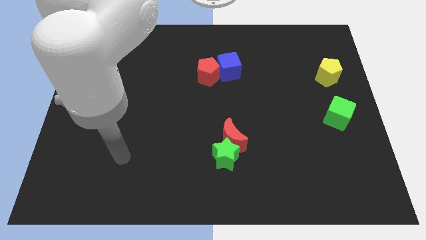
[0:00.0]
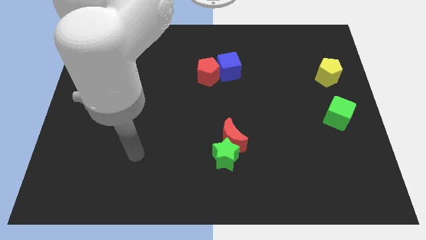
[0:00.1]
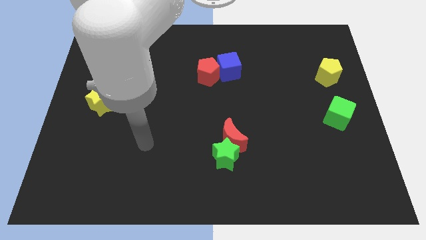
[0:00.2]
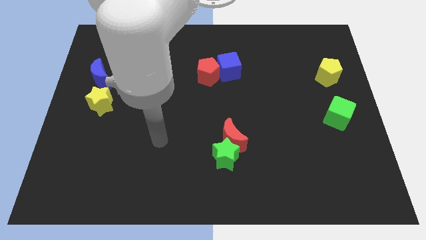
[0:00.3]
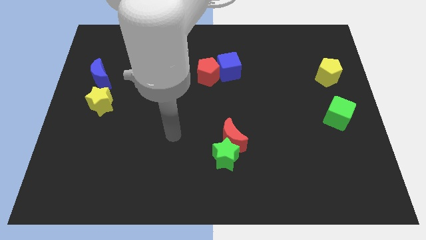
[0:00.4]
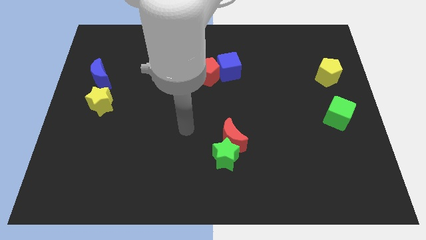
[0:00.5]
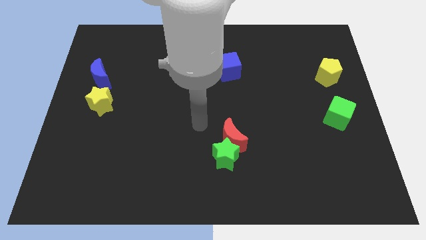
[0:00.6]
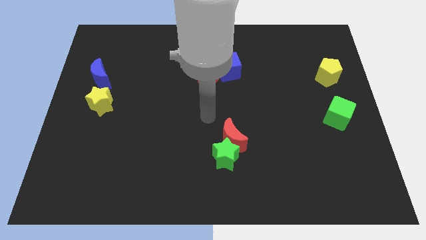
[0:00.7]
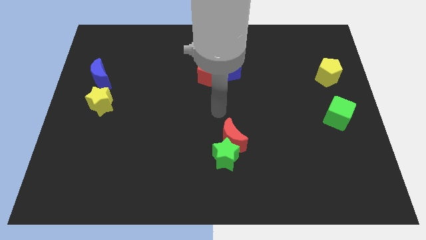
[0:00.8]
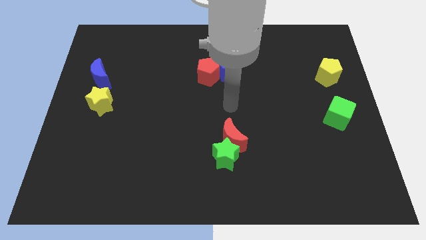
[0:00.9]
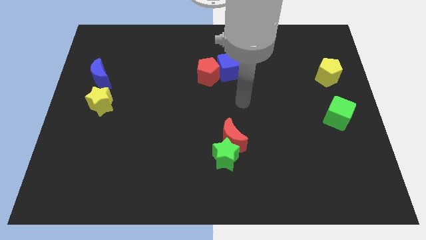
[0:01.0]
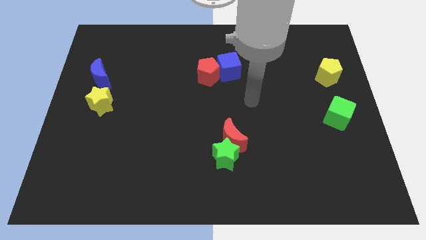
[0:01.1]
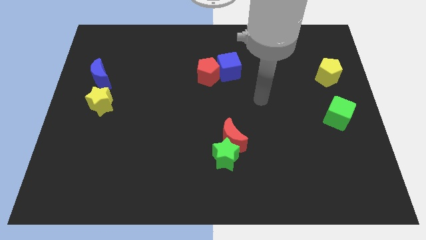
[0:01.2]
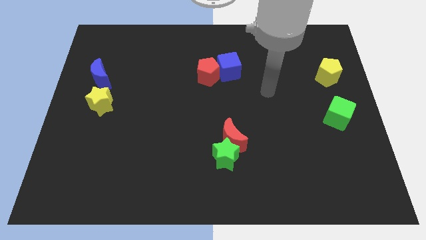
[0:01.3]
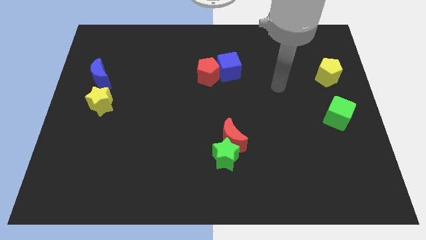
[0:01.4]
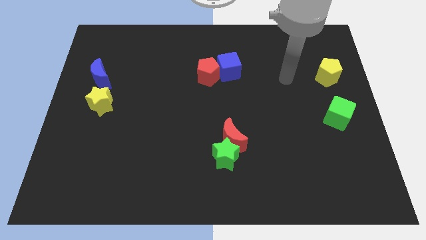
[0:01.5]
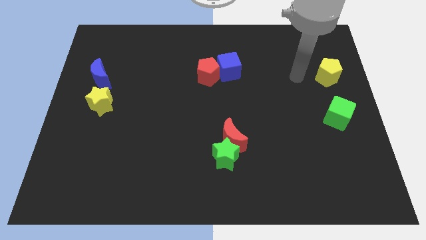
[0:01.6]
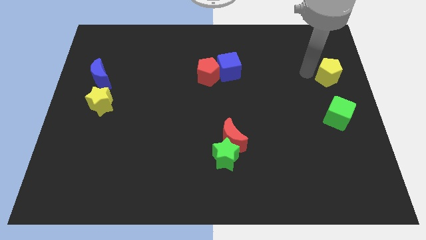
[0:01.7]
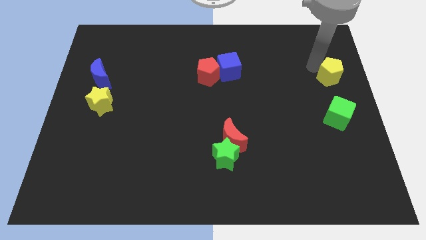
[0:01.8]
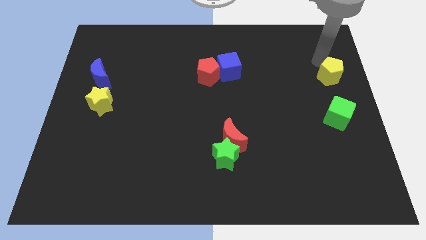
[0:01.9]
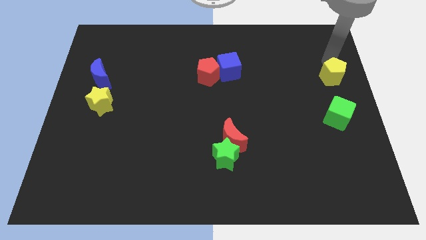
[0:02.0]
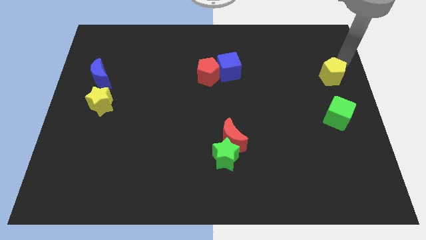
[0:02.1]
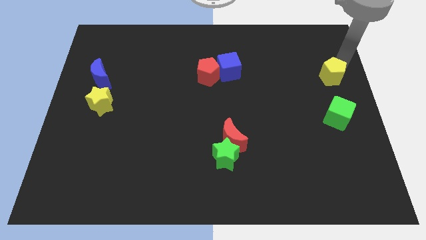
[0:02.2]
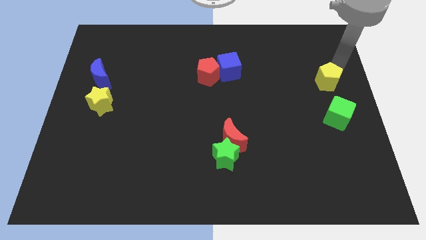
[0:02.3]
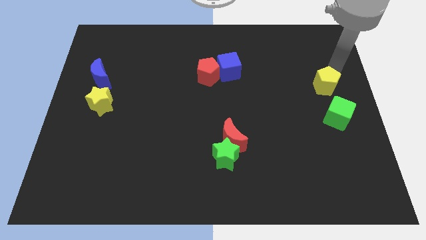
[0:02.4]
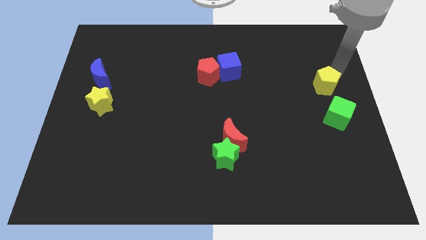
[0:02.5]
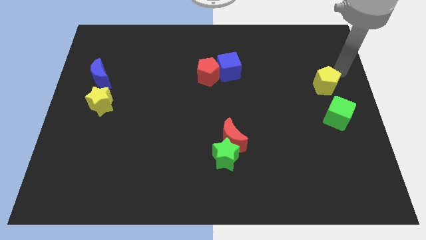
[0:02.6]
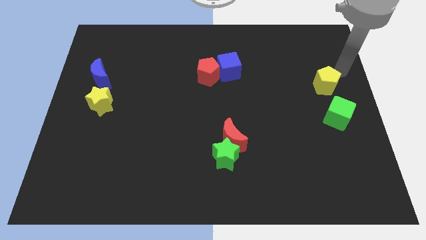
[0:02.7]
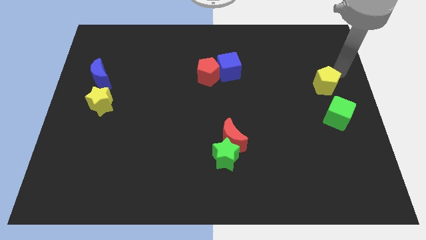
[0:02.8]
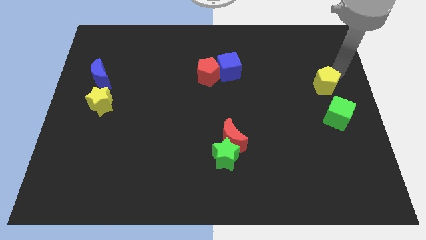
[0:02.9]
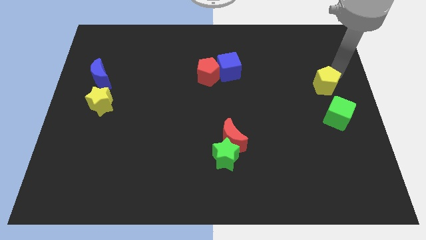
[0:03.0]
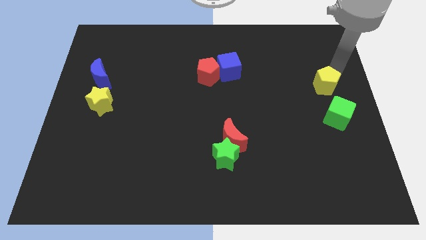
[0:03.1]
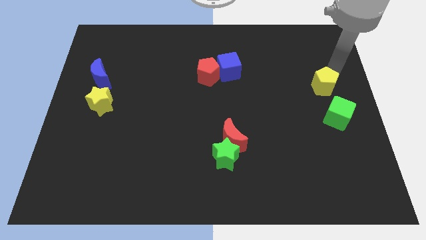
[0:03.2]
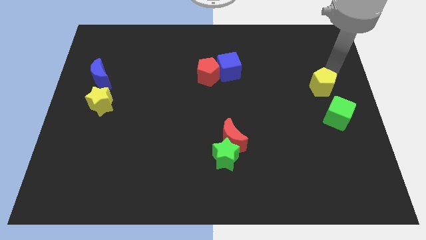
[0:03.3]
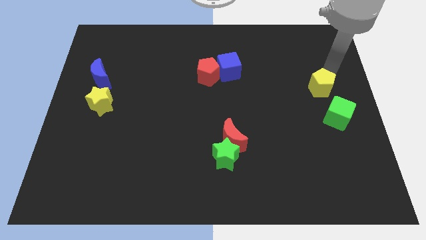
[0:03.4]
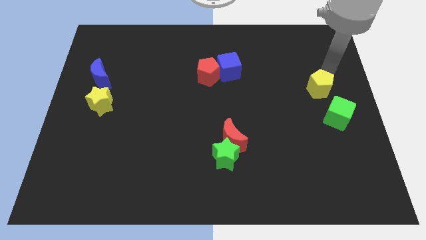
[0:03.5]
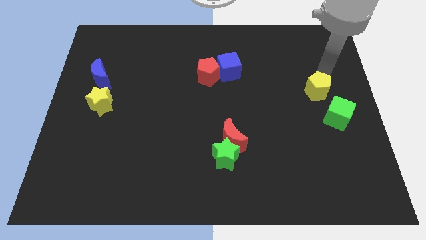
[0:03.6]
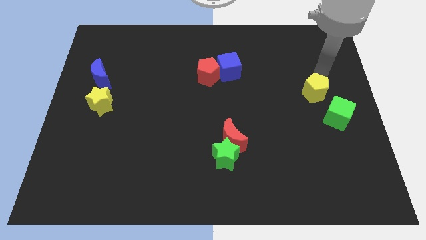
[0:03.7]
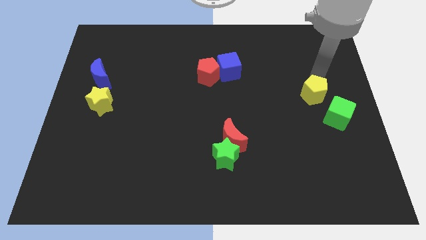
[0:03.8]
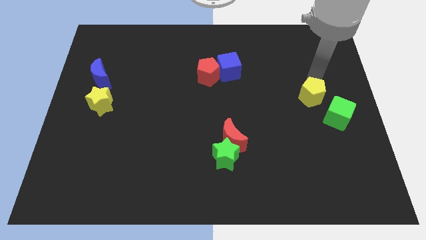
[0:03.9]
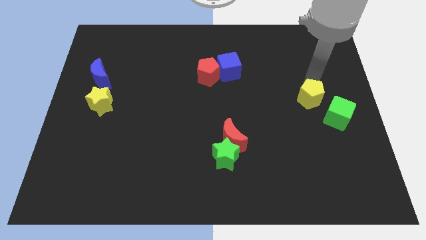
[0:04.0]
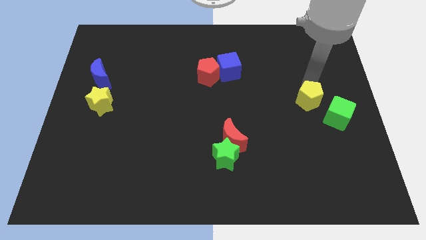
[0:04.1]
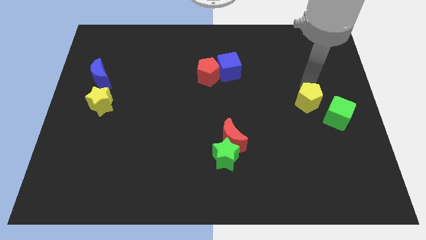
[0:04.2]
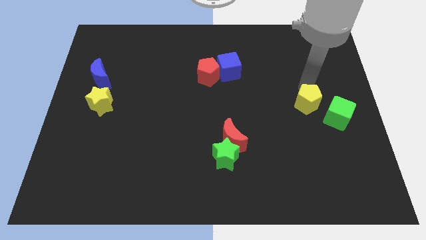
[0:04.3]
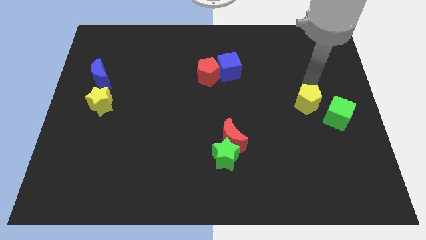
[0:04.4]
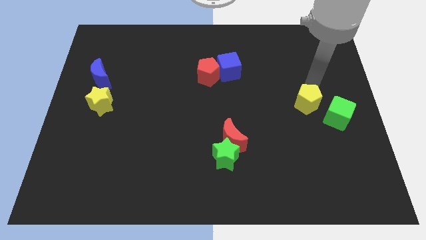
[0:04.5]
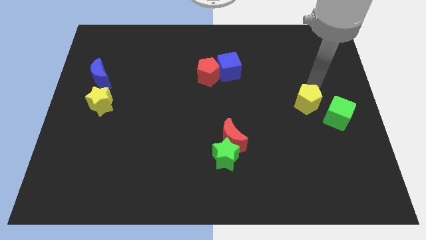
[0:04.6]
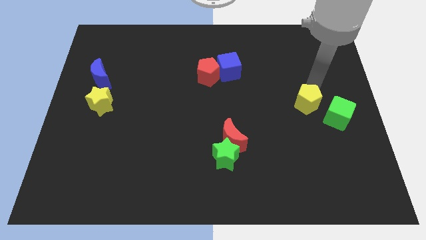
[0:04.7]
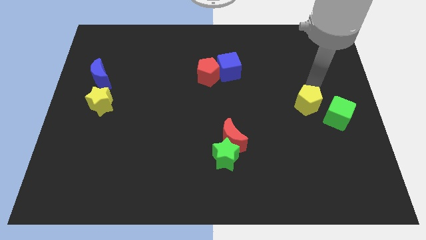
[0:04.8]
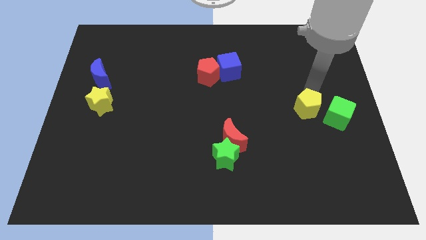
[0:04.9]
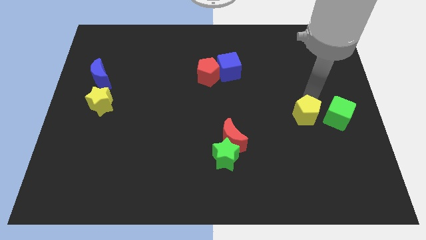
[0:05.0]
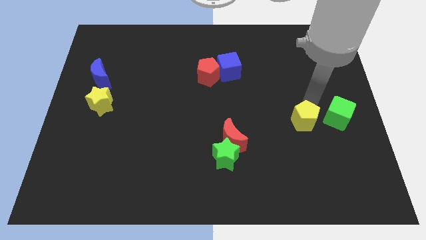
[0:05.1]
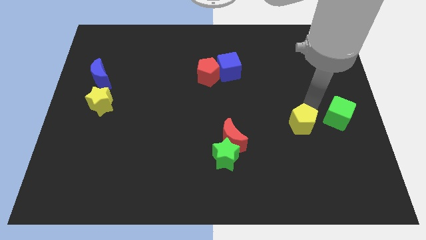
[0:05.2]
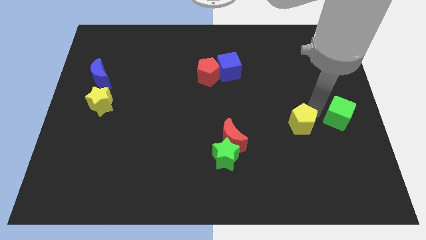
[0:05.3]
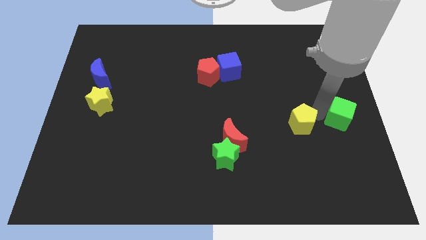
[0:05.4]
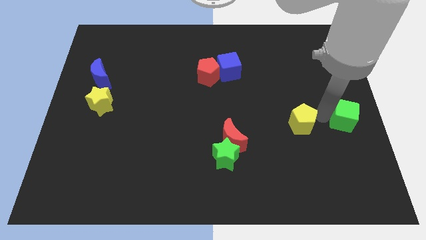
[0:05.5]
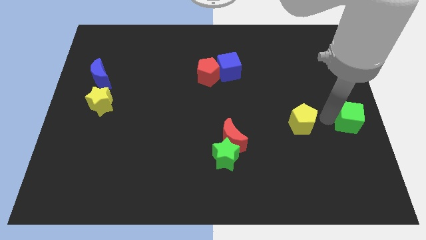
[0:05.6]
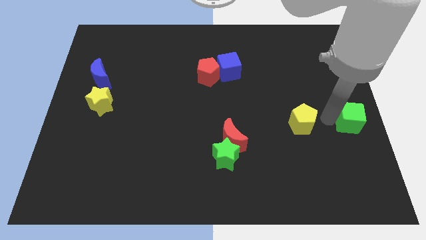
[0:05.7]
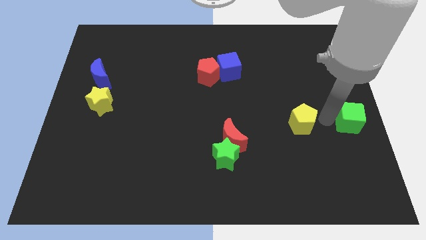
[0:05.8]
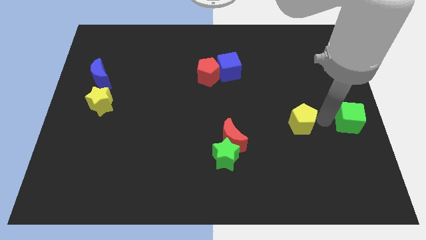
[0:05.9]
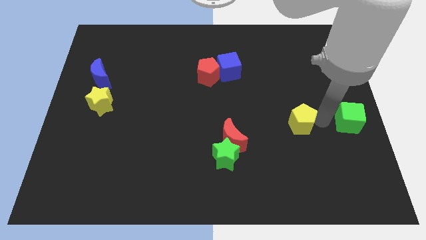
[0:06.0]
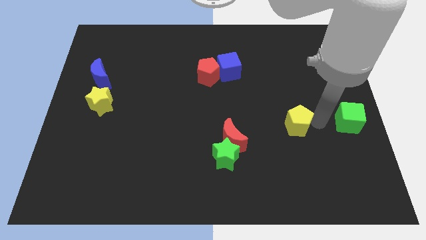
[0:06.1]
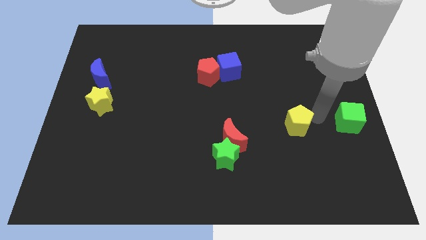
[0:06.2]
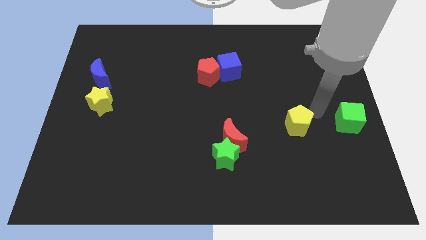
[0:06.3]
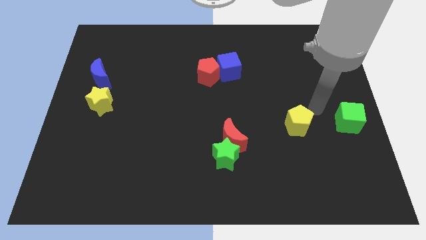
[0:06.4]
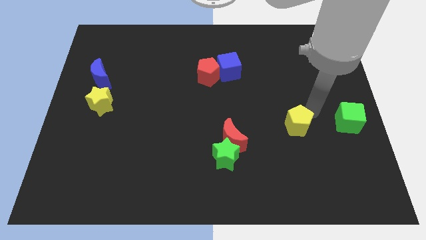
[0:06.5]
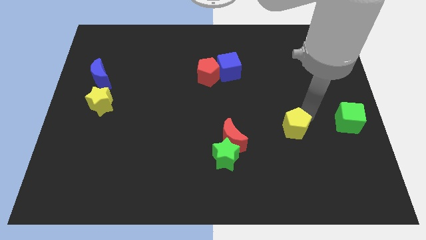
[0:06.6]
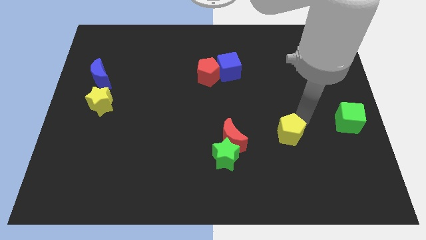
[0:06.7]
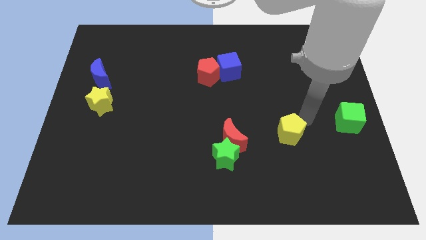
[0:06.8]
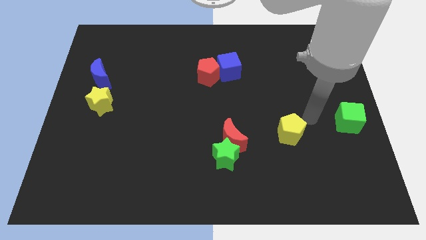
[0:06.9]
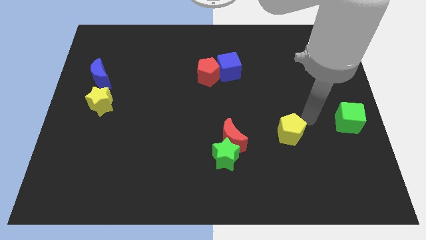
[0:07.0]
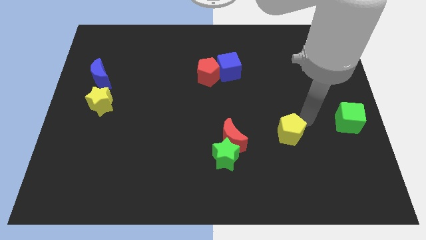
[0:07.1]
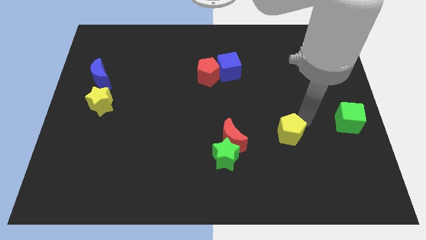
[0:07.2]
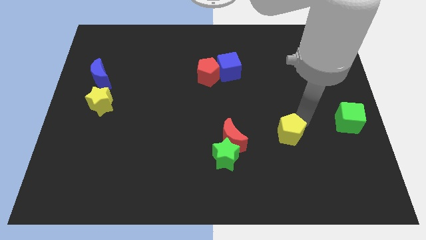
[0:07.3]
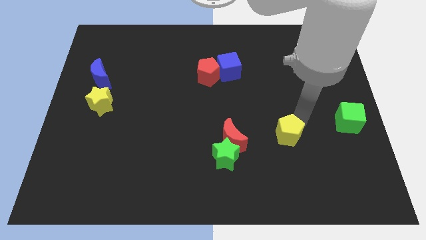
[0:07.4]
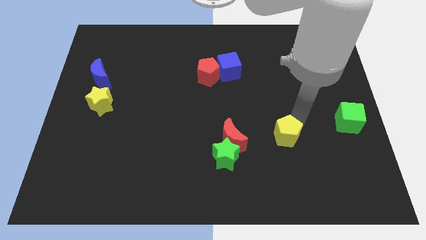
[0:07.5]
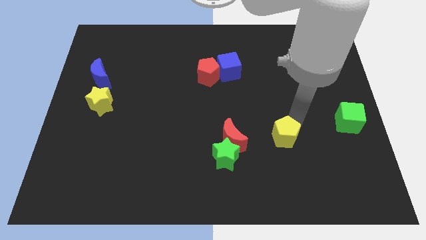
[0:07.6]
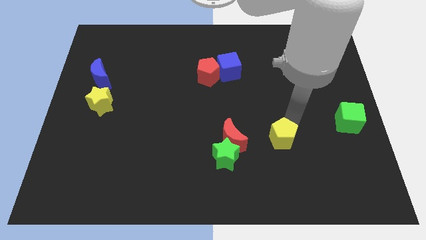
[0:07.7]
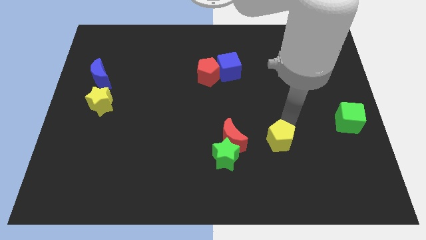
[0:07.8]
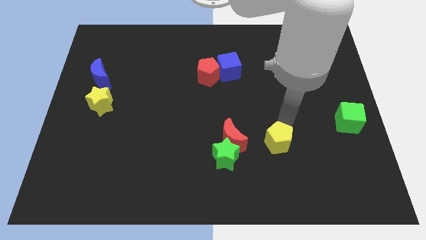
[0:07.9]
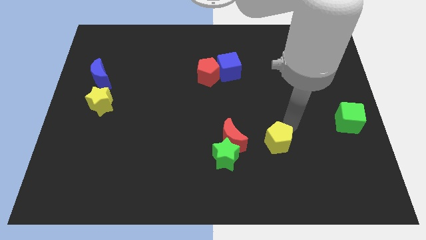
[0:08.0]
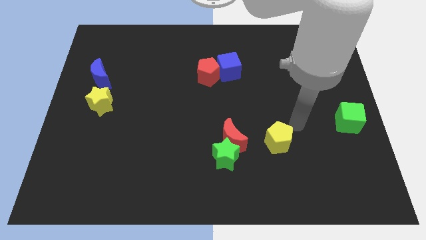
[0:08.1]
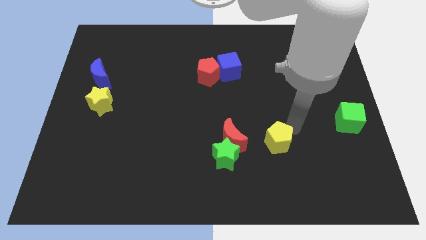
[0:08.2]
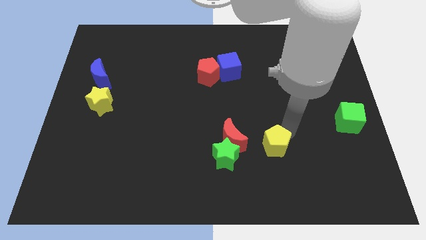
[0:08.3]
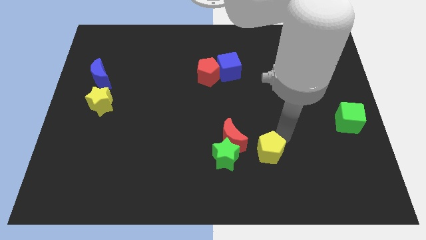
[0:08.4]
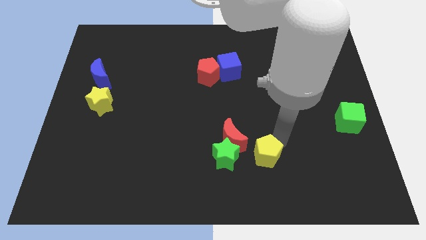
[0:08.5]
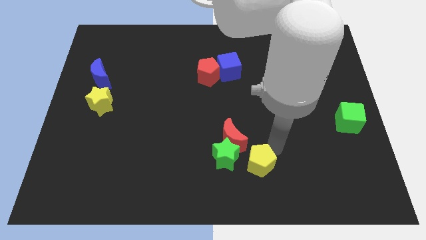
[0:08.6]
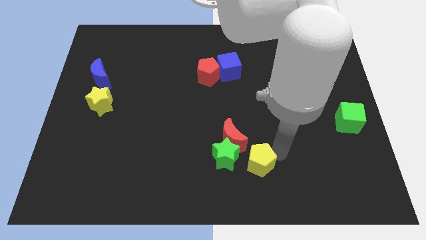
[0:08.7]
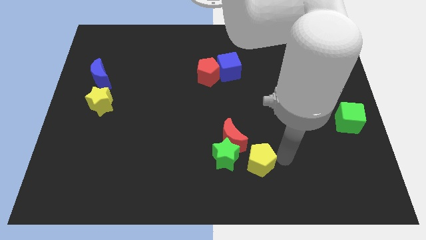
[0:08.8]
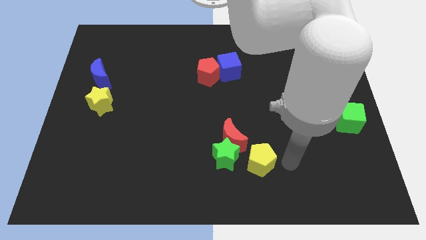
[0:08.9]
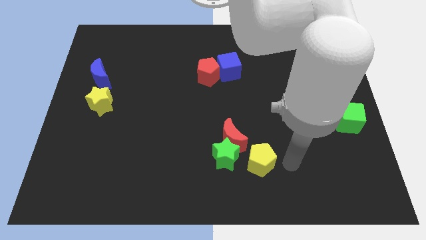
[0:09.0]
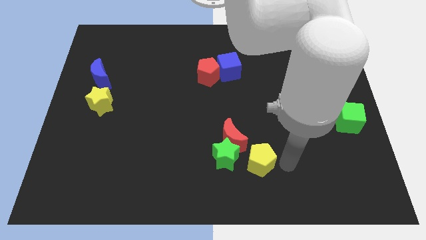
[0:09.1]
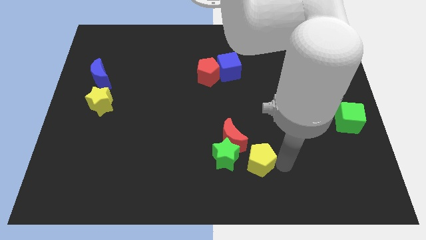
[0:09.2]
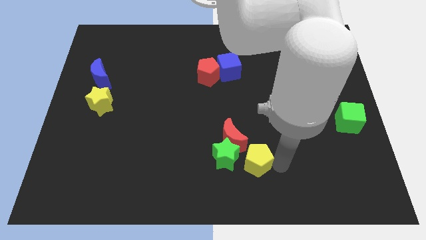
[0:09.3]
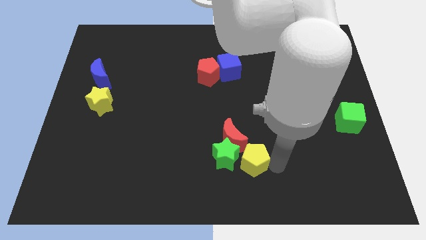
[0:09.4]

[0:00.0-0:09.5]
move the yellow pentagon next to the green star
